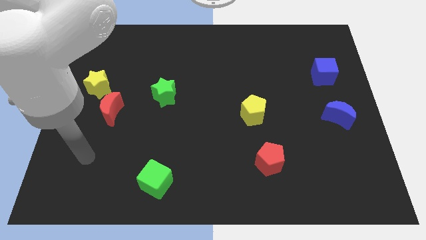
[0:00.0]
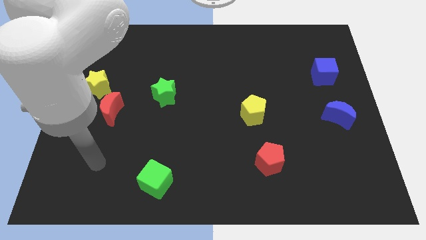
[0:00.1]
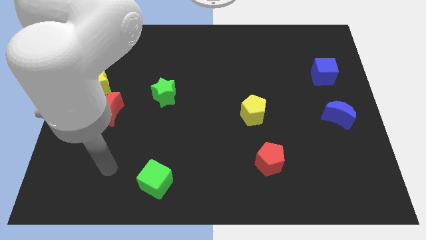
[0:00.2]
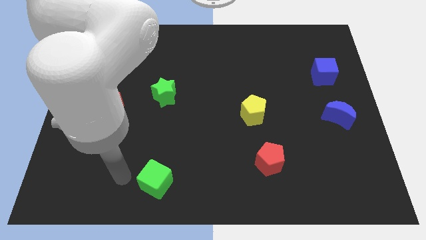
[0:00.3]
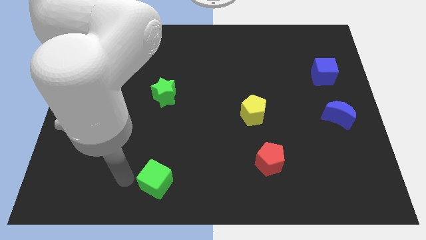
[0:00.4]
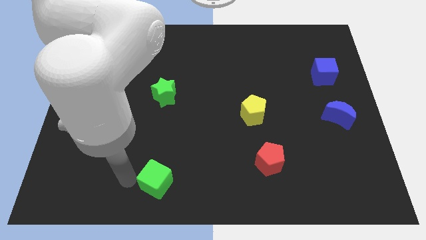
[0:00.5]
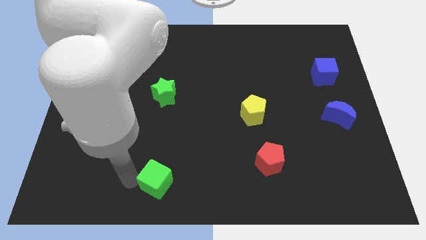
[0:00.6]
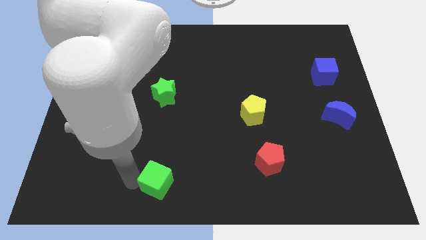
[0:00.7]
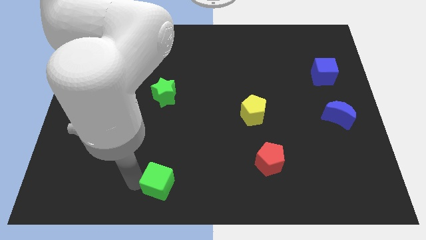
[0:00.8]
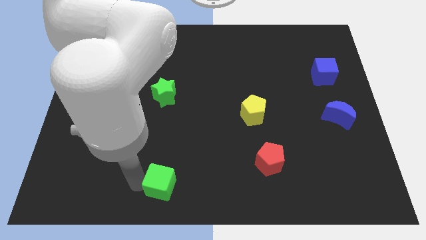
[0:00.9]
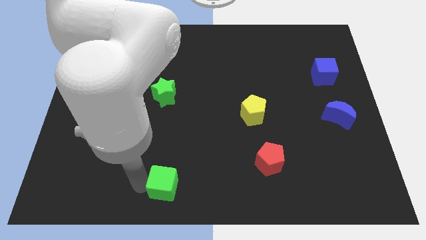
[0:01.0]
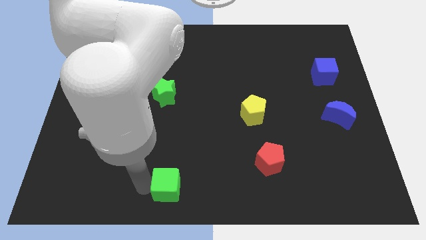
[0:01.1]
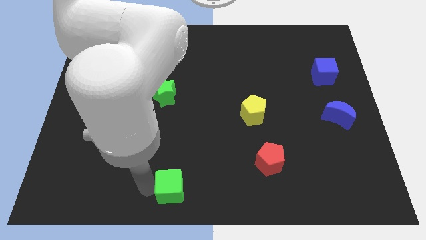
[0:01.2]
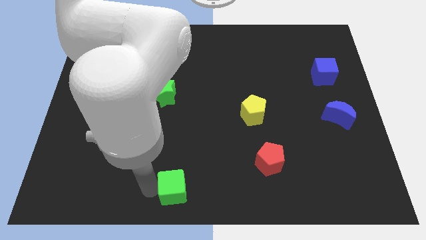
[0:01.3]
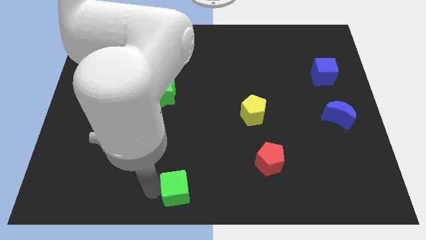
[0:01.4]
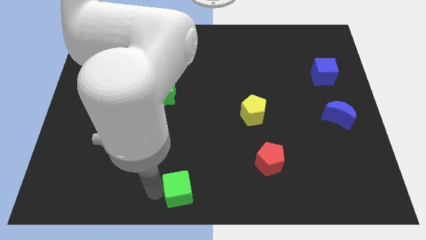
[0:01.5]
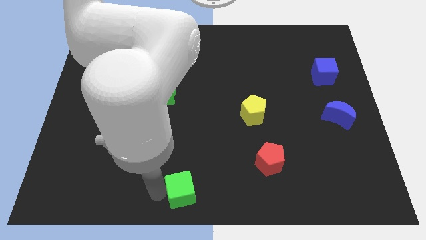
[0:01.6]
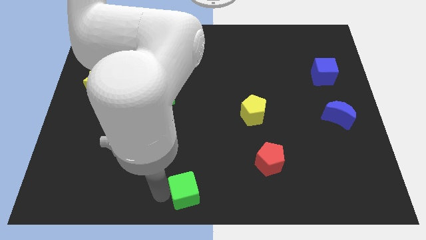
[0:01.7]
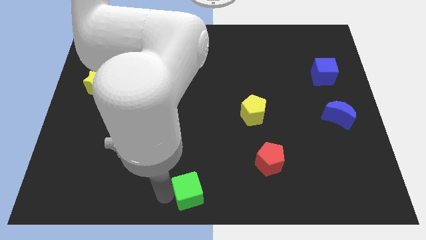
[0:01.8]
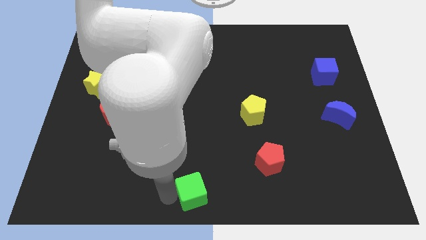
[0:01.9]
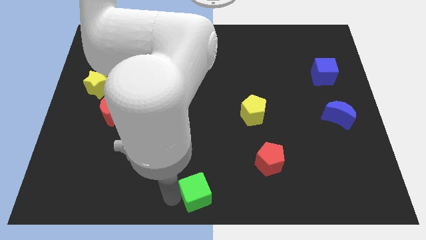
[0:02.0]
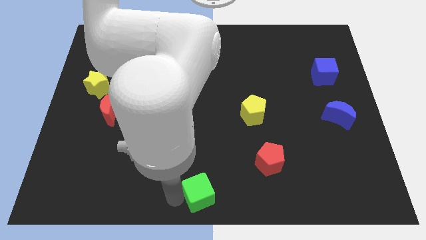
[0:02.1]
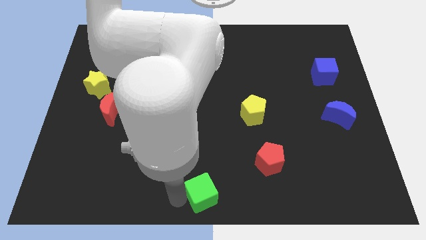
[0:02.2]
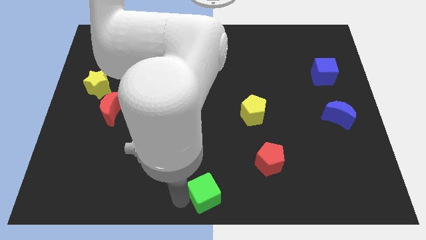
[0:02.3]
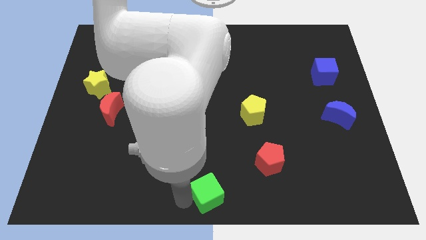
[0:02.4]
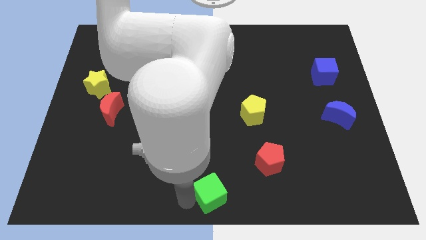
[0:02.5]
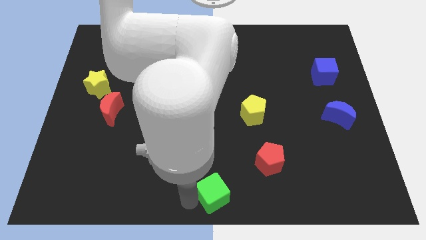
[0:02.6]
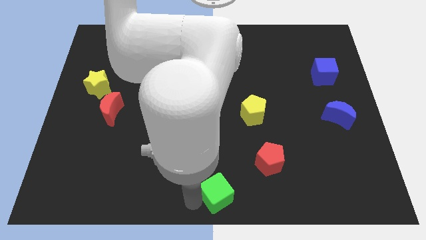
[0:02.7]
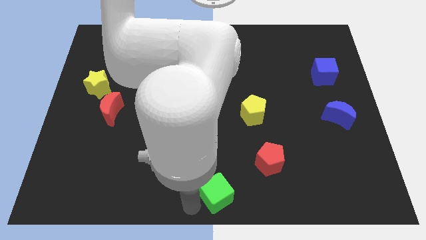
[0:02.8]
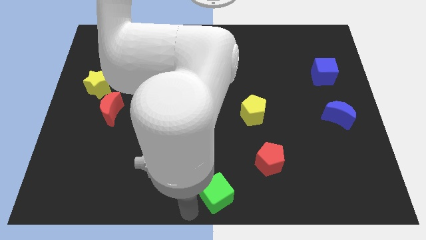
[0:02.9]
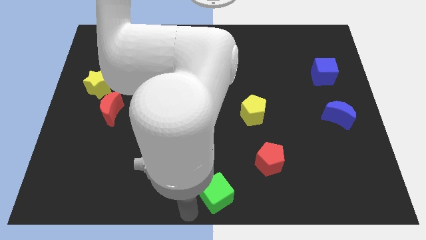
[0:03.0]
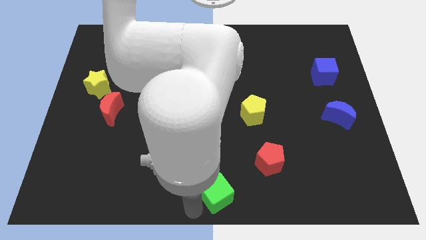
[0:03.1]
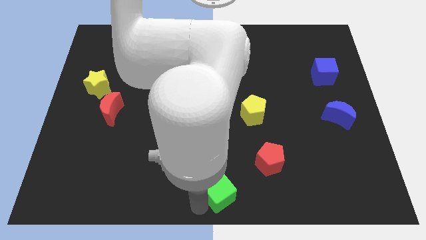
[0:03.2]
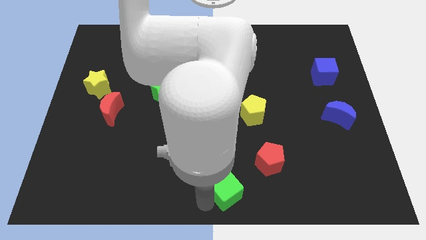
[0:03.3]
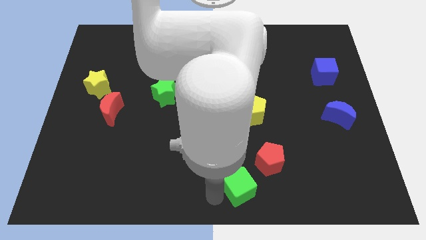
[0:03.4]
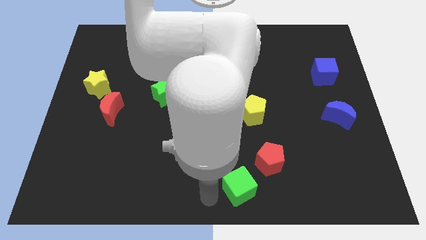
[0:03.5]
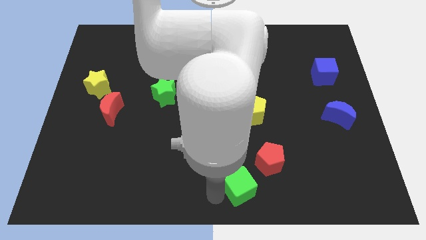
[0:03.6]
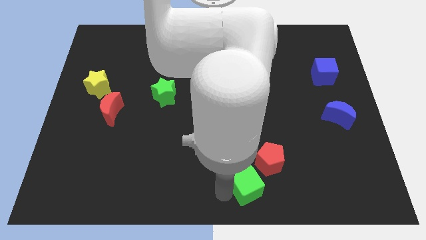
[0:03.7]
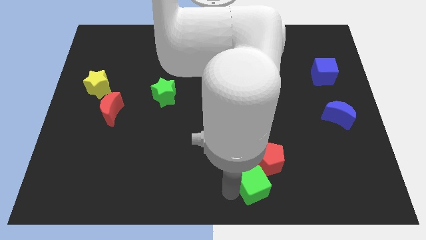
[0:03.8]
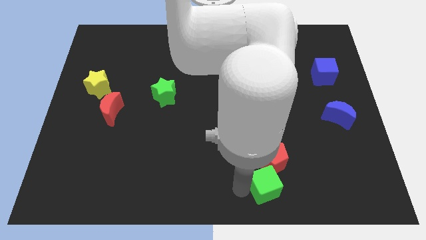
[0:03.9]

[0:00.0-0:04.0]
slide the green cube right

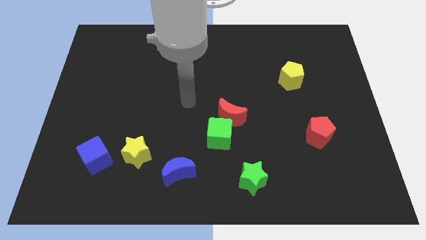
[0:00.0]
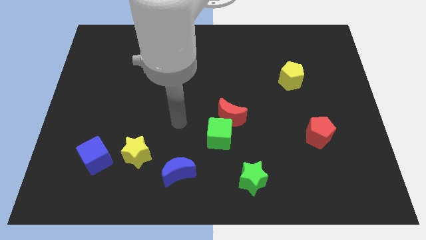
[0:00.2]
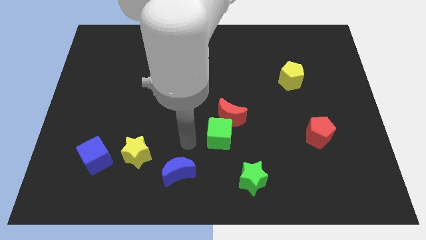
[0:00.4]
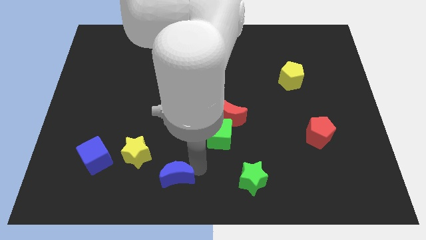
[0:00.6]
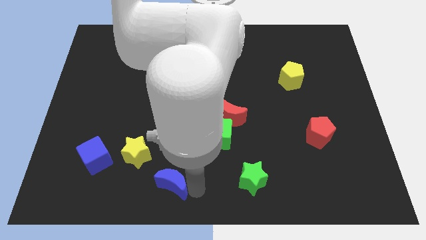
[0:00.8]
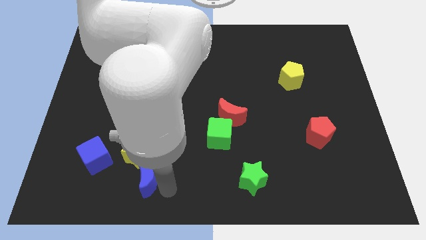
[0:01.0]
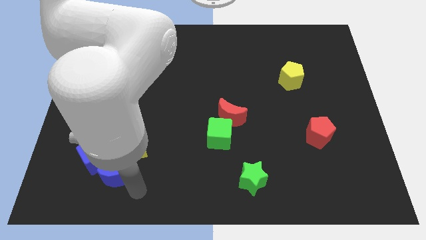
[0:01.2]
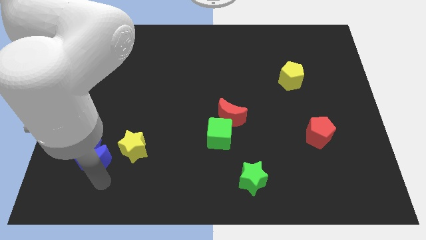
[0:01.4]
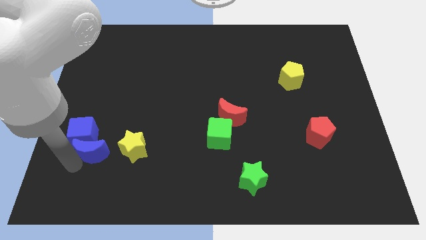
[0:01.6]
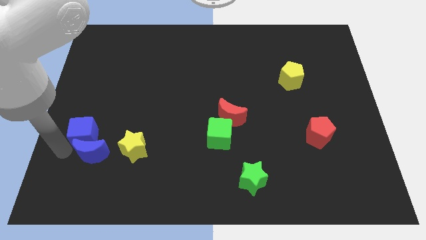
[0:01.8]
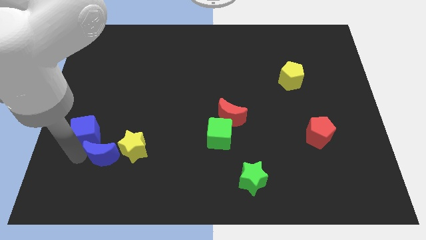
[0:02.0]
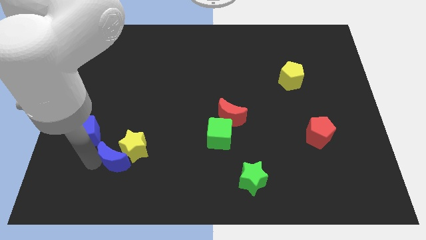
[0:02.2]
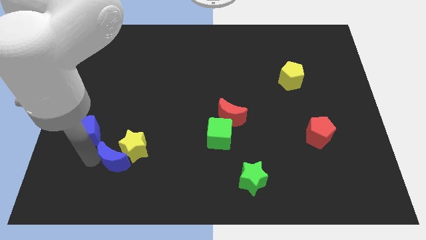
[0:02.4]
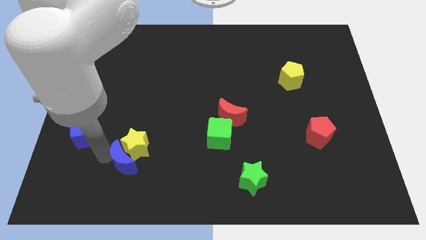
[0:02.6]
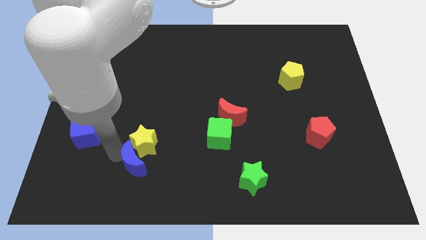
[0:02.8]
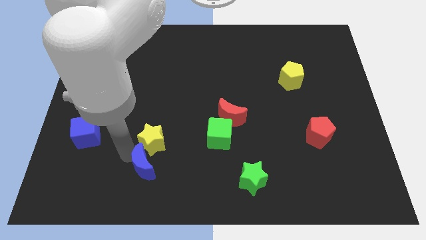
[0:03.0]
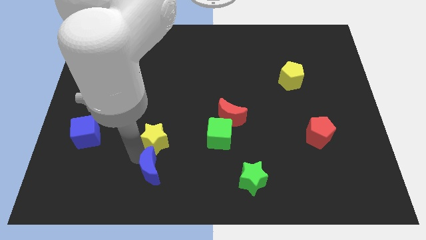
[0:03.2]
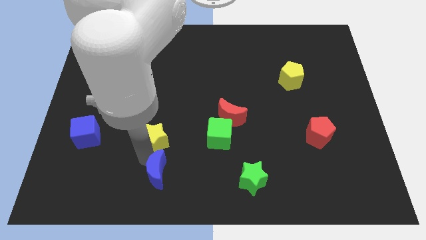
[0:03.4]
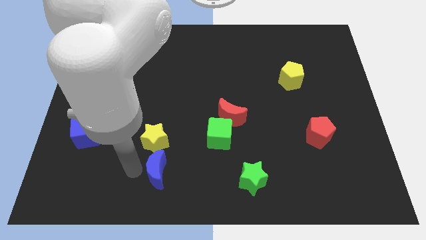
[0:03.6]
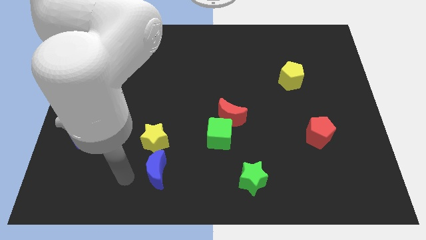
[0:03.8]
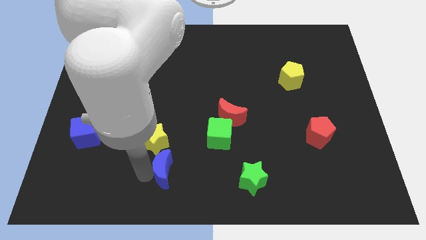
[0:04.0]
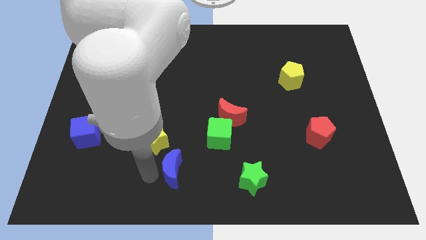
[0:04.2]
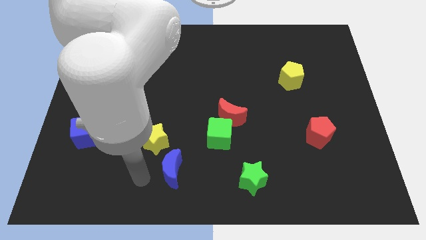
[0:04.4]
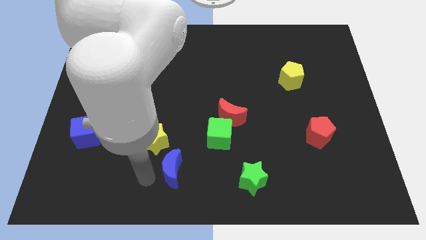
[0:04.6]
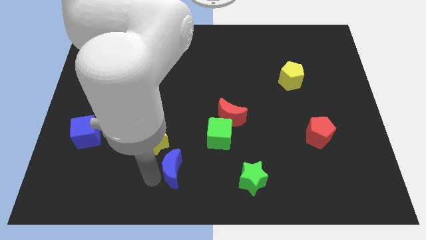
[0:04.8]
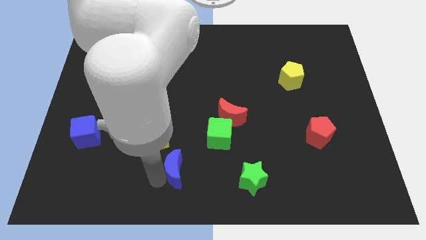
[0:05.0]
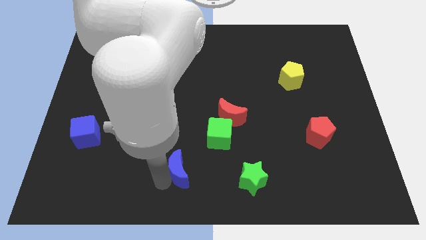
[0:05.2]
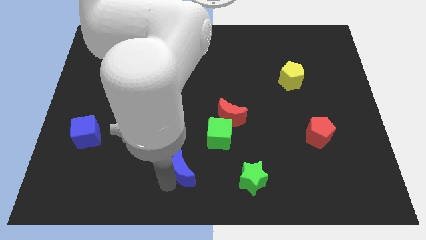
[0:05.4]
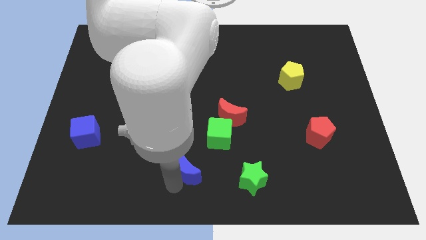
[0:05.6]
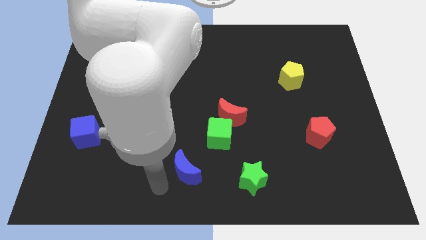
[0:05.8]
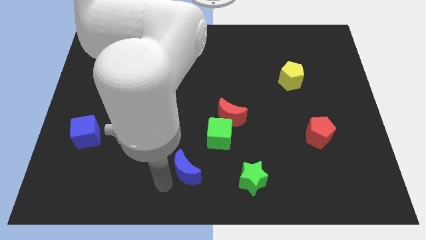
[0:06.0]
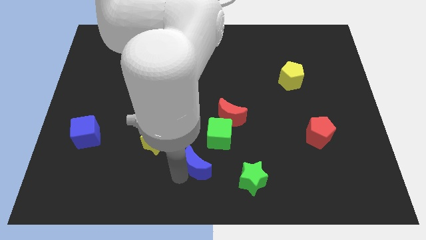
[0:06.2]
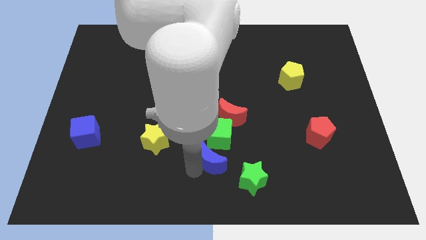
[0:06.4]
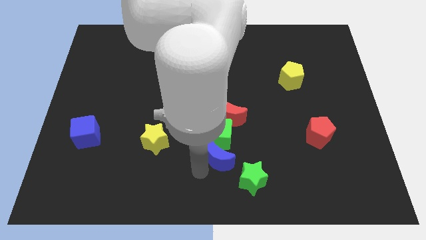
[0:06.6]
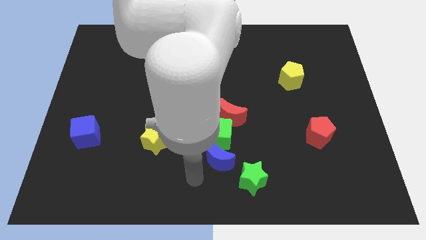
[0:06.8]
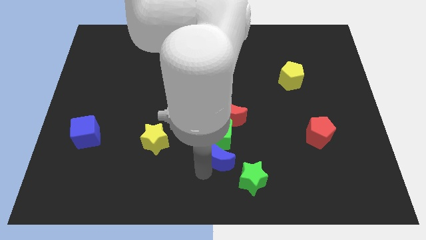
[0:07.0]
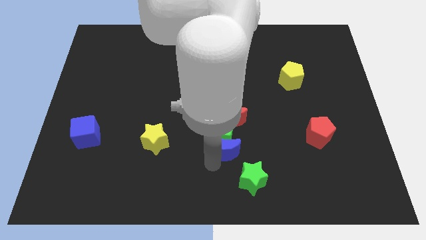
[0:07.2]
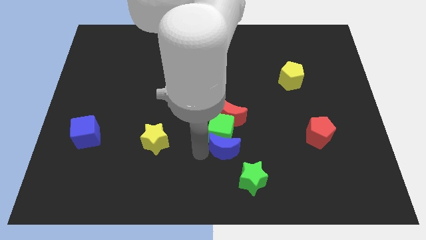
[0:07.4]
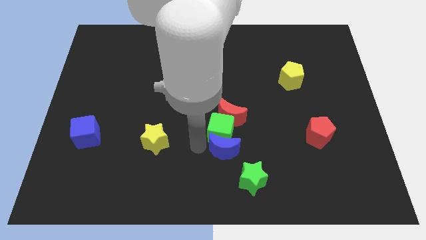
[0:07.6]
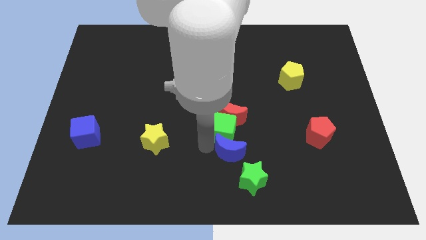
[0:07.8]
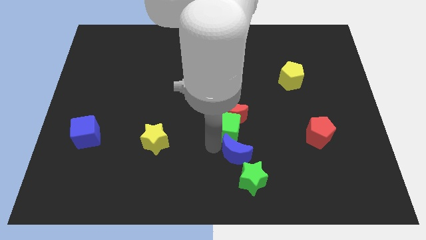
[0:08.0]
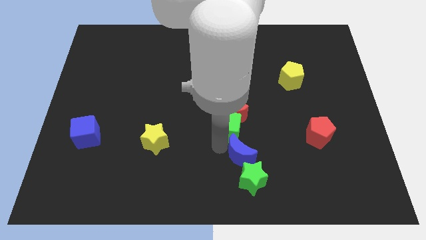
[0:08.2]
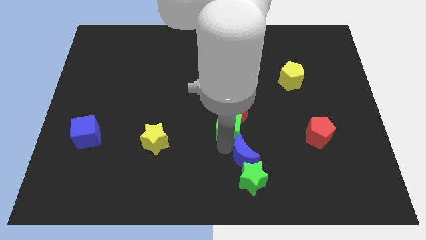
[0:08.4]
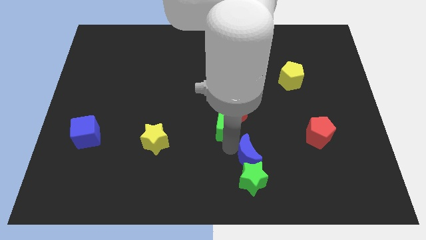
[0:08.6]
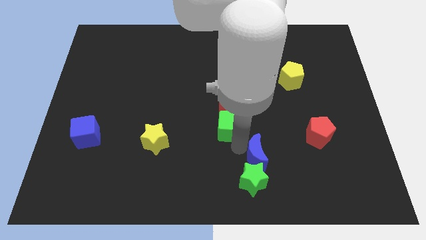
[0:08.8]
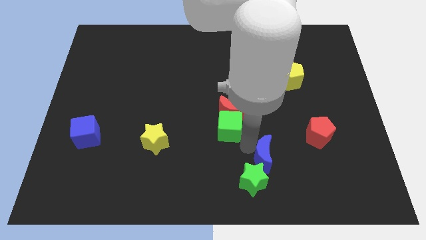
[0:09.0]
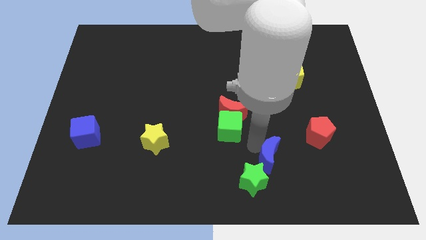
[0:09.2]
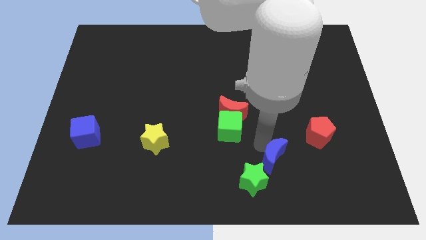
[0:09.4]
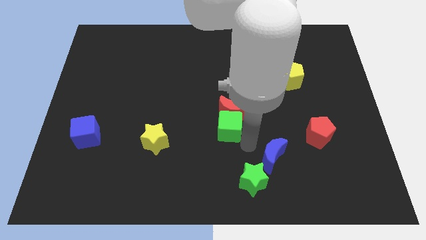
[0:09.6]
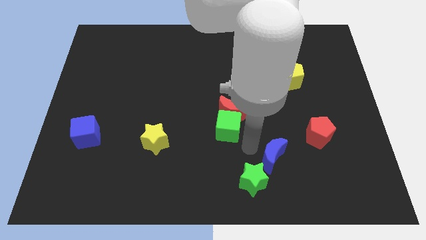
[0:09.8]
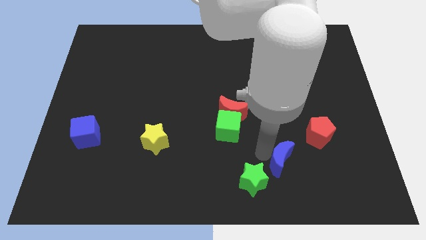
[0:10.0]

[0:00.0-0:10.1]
move the blue moon to the right
